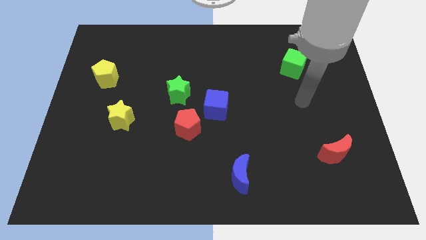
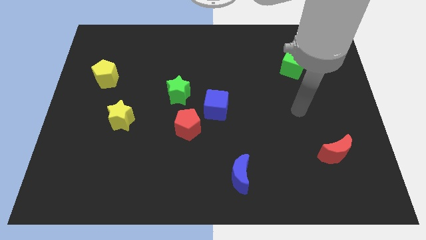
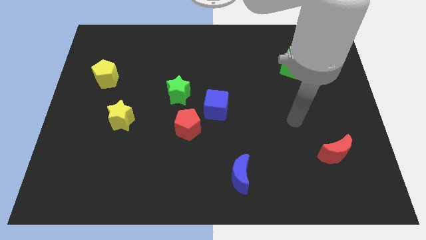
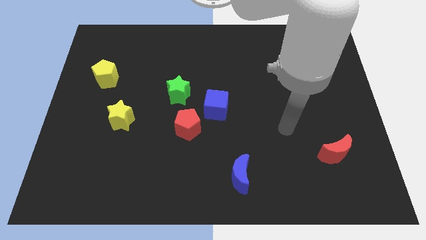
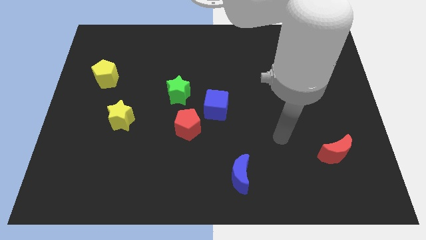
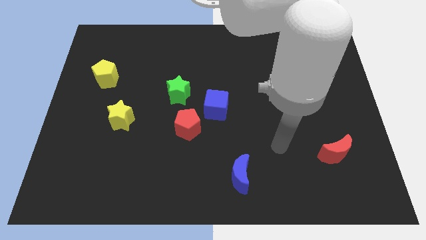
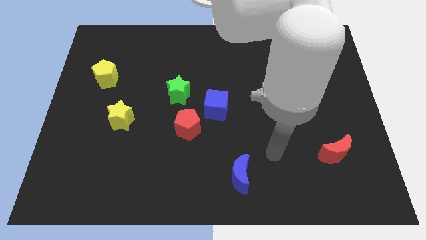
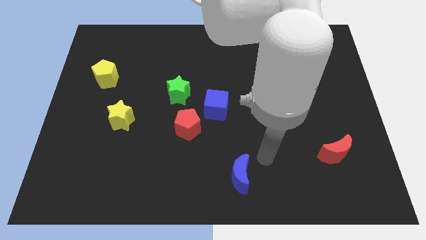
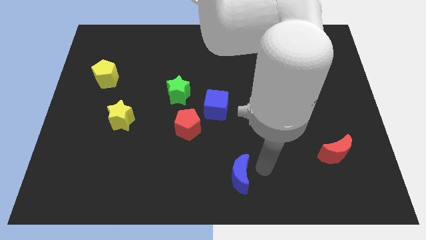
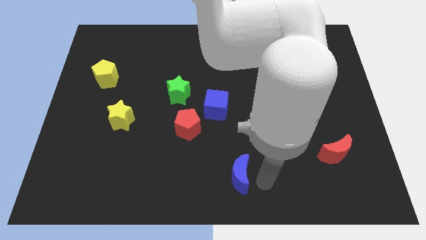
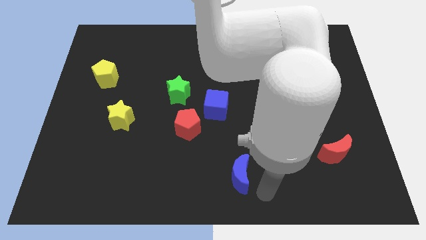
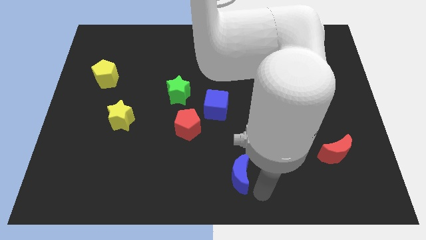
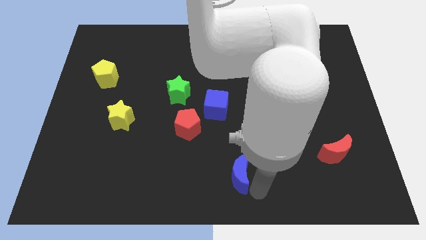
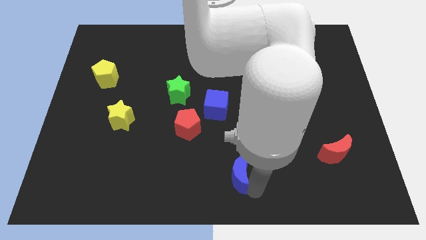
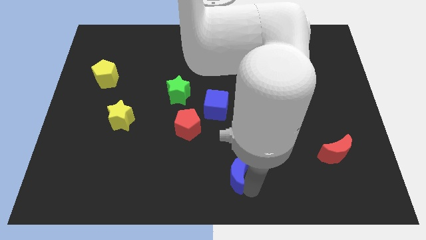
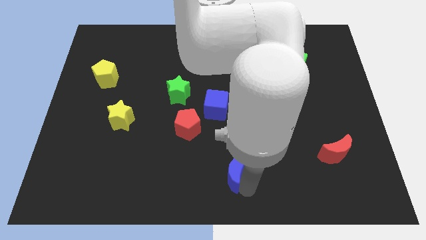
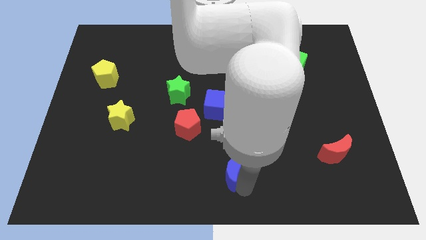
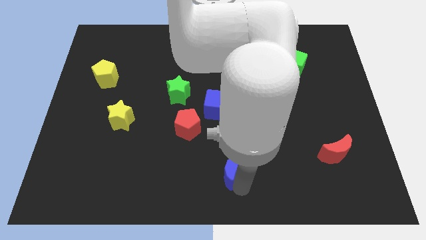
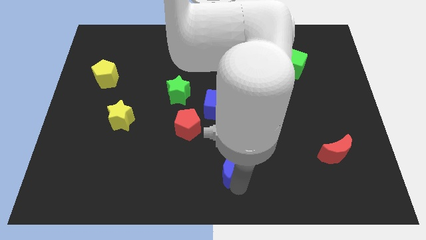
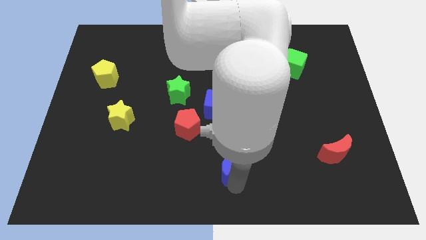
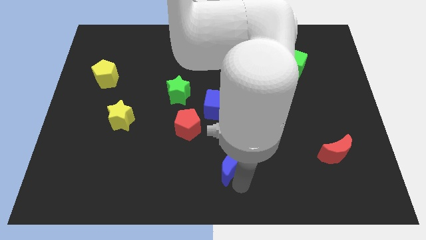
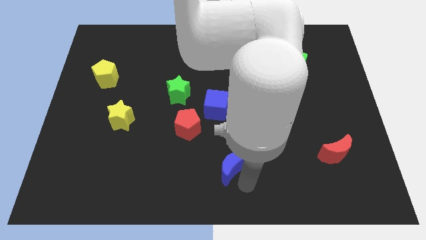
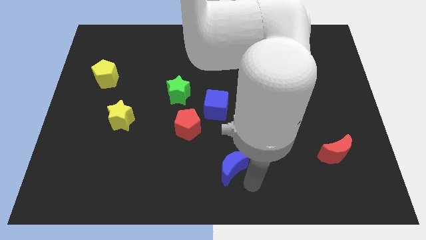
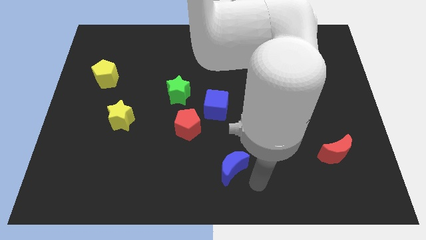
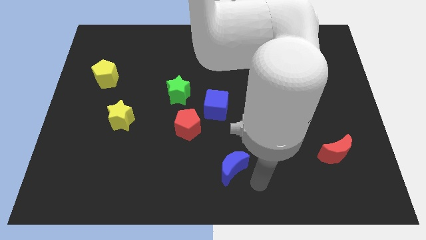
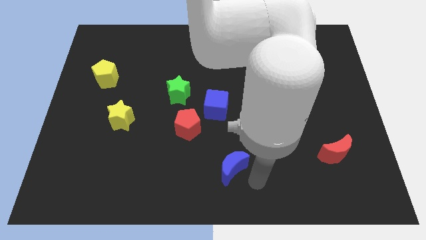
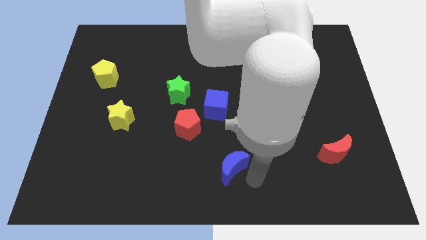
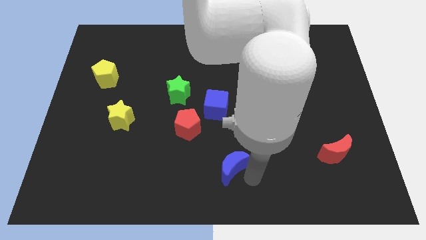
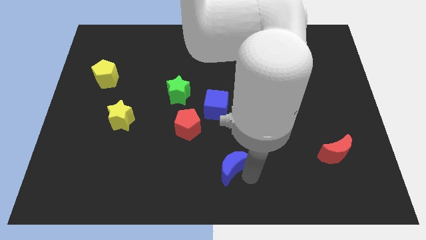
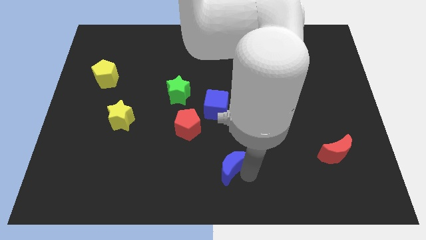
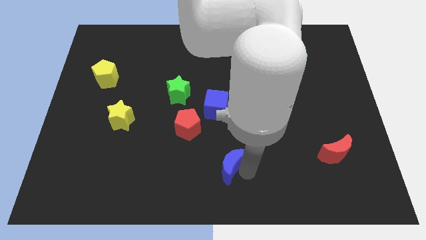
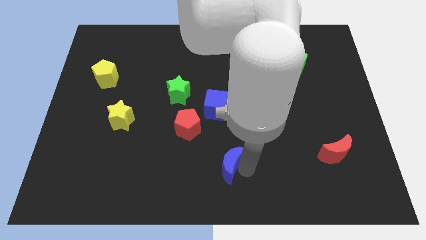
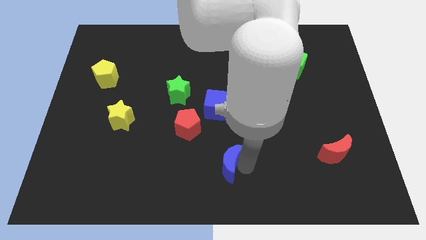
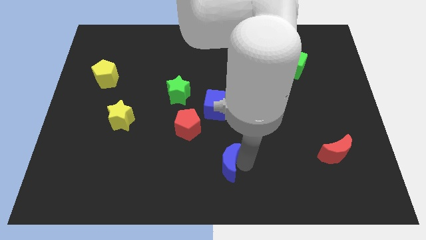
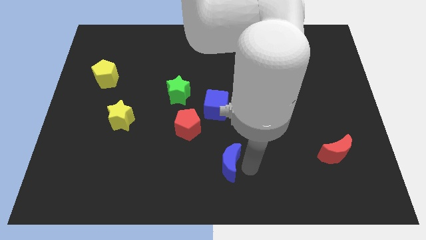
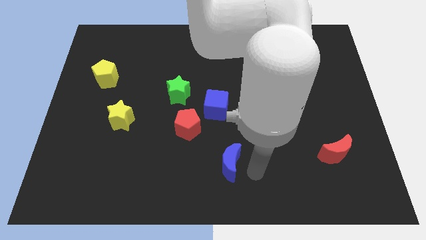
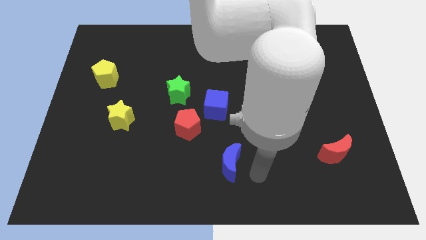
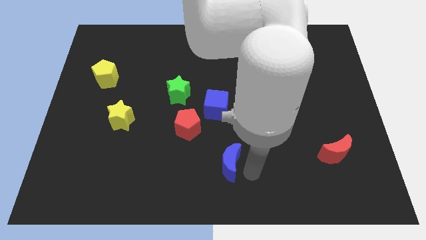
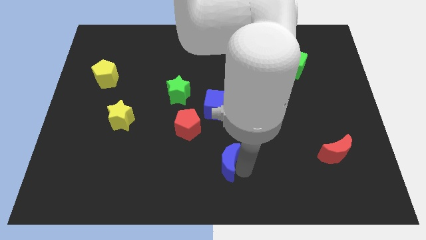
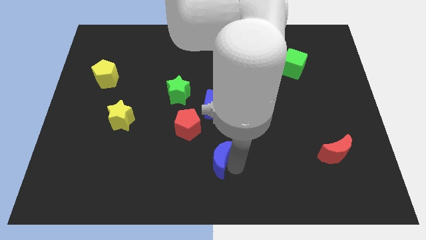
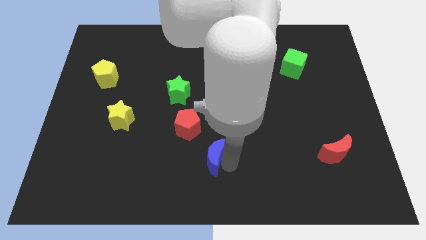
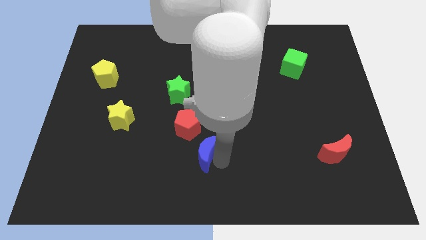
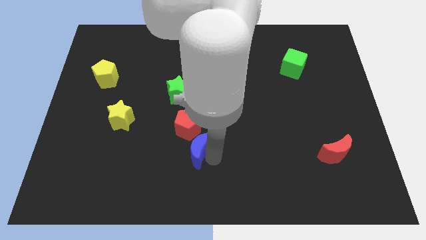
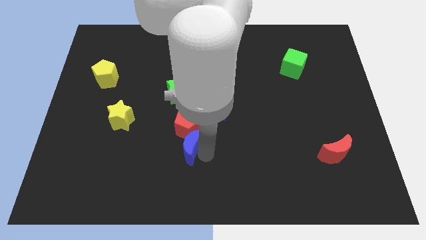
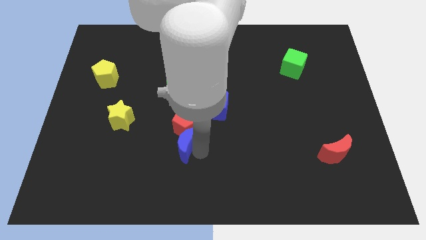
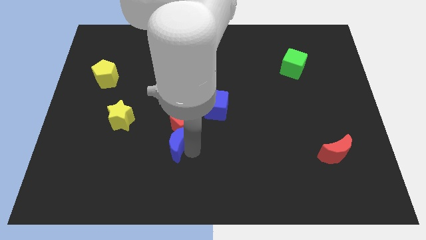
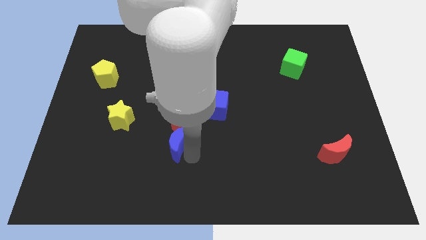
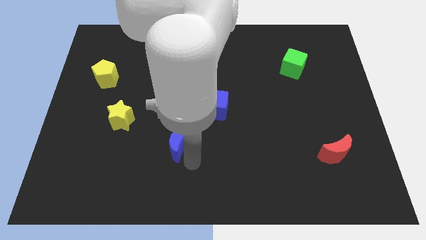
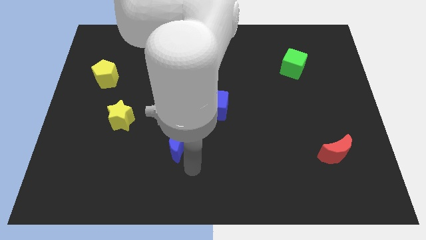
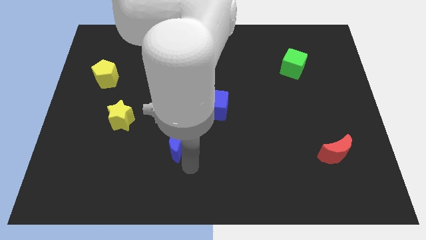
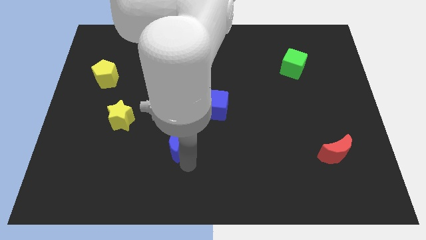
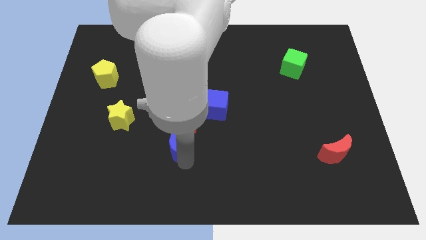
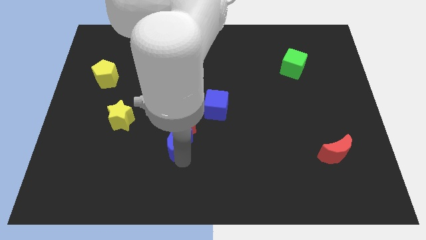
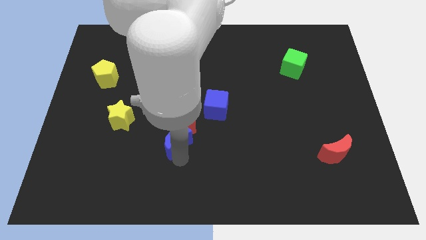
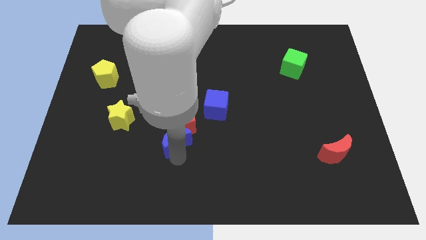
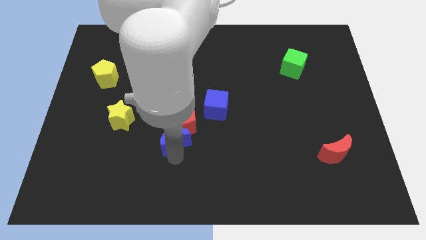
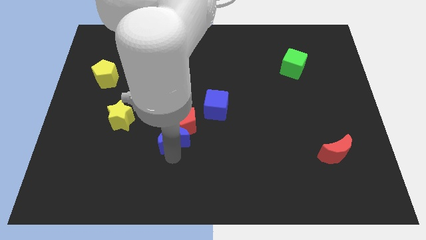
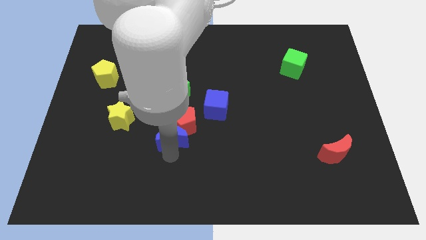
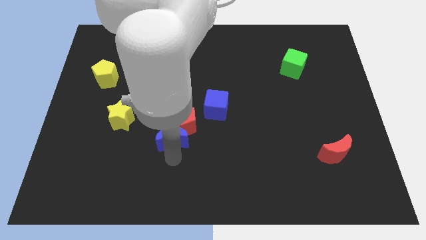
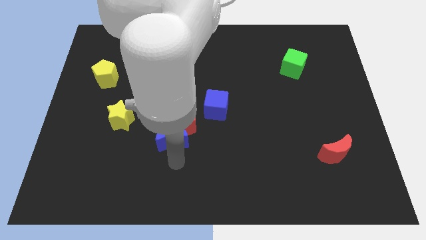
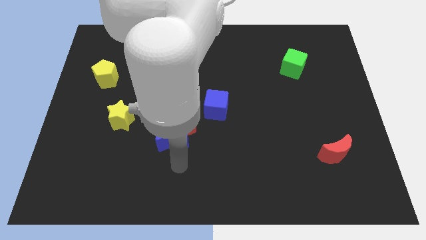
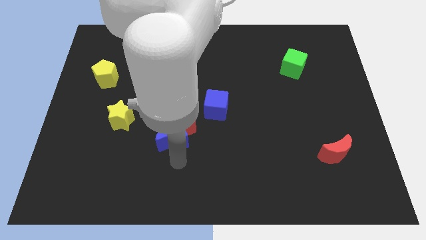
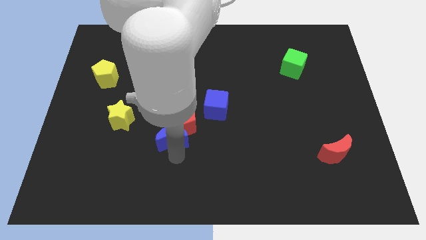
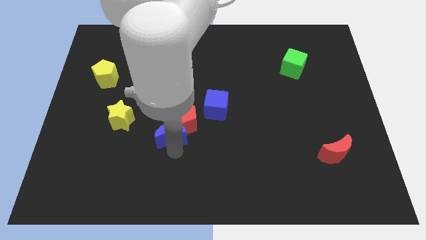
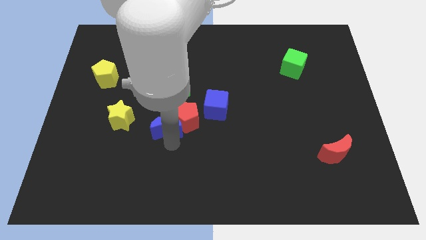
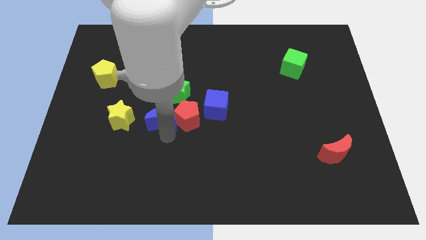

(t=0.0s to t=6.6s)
put the blue moon diagonally up and to the left of the red pentagon
